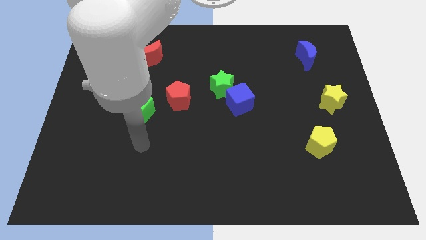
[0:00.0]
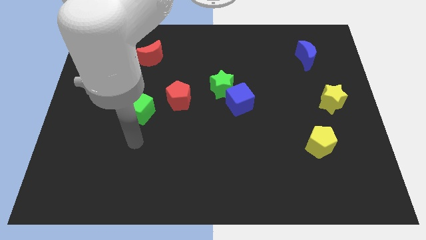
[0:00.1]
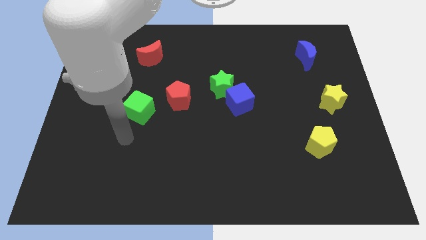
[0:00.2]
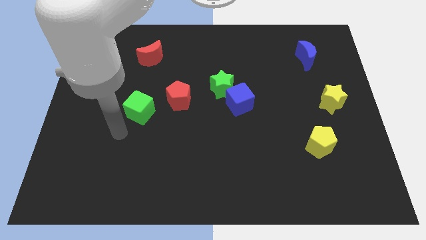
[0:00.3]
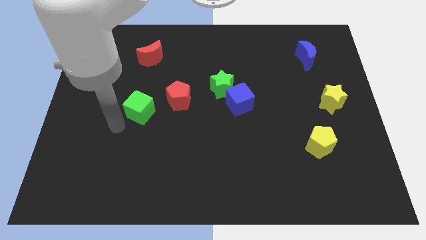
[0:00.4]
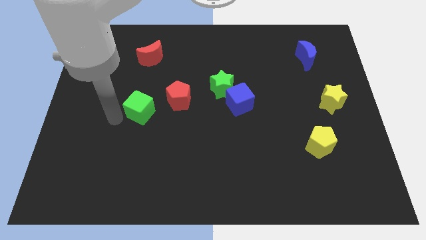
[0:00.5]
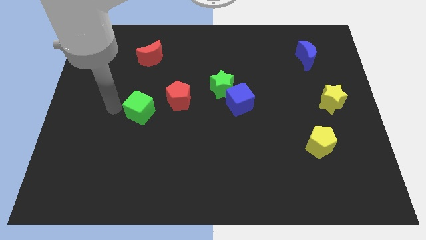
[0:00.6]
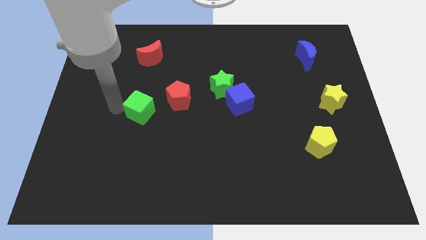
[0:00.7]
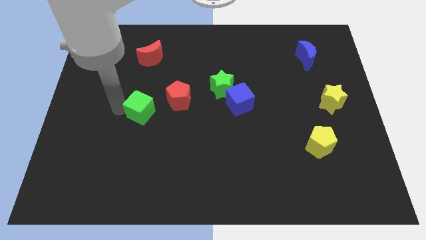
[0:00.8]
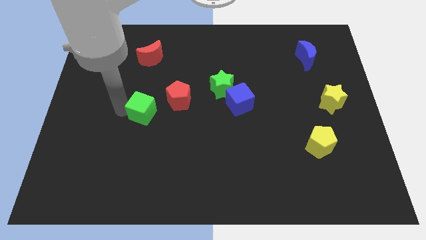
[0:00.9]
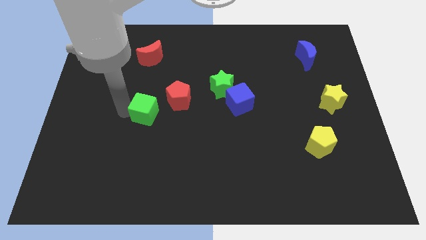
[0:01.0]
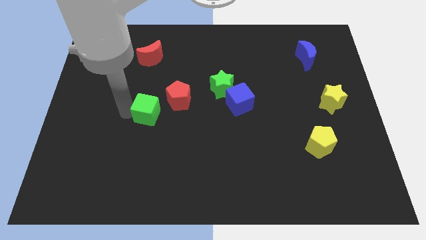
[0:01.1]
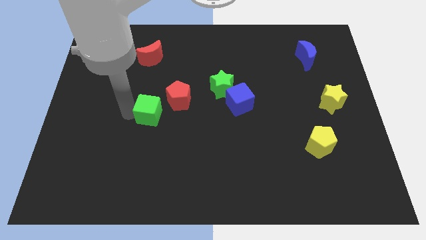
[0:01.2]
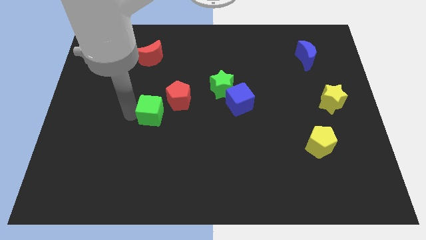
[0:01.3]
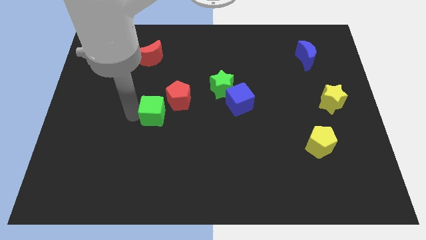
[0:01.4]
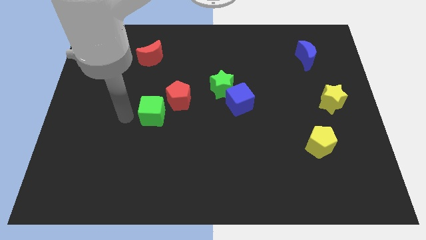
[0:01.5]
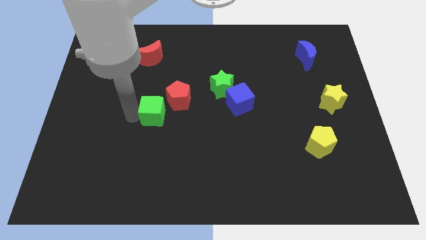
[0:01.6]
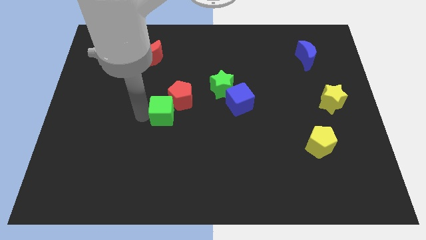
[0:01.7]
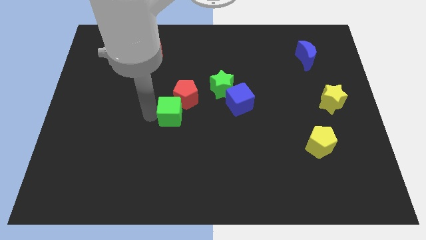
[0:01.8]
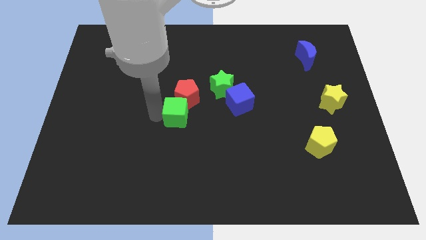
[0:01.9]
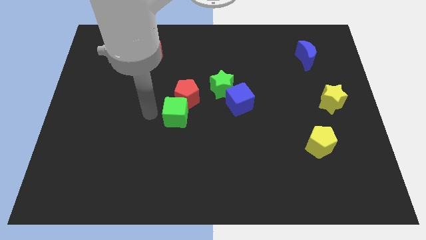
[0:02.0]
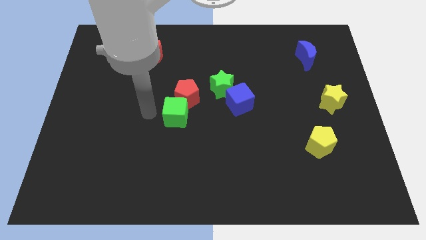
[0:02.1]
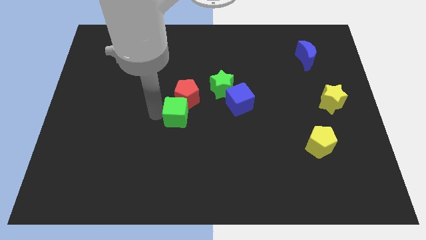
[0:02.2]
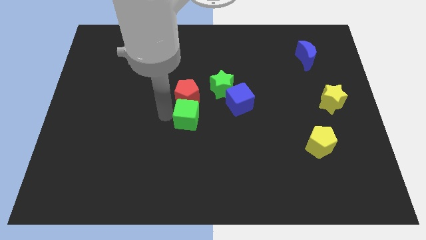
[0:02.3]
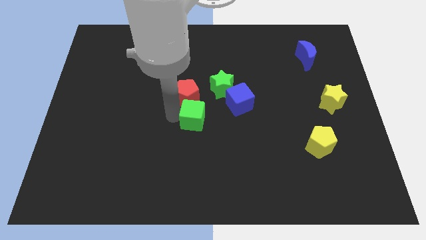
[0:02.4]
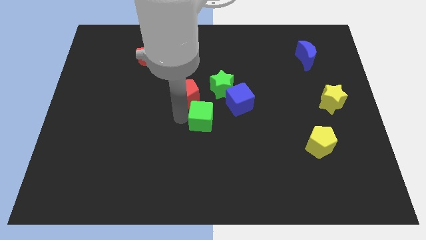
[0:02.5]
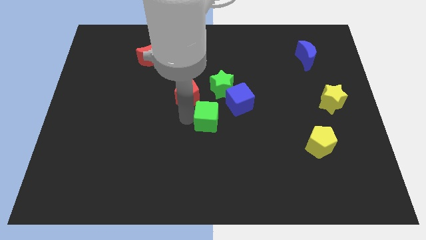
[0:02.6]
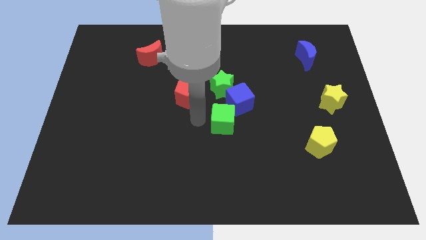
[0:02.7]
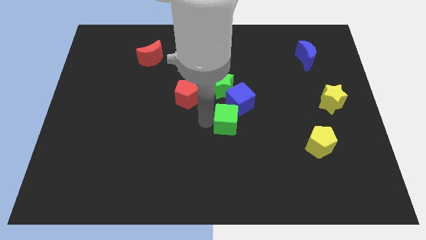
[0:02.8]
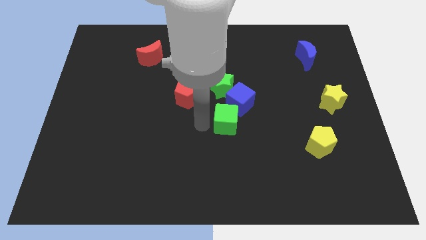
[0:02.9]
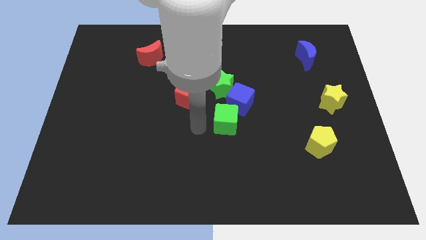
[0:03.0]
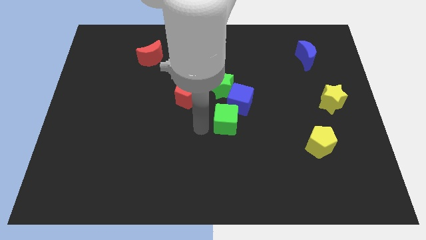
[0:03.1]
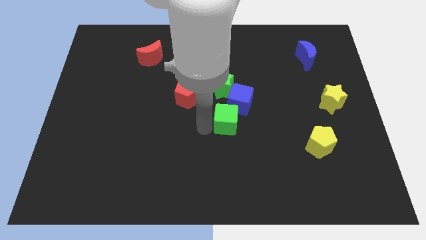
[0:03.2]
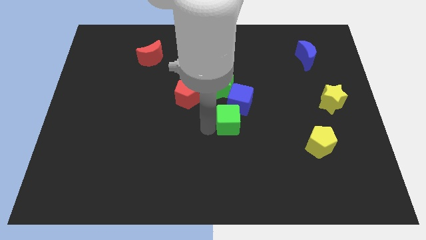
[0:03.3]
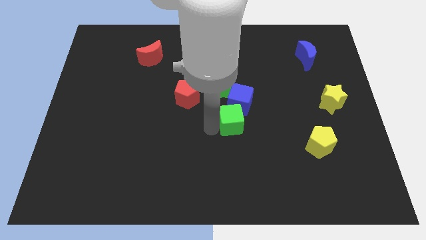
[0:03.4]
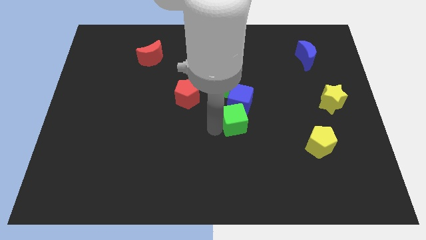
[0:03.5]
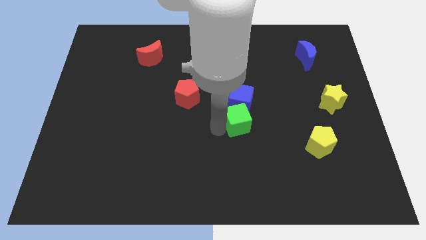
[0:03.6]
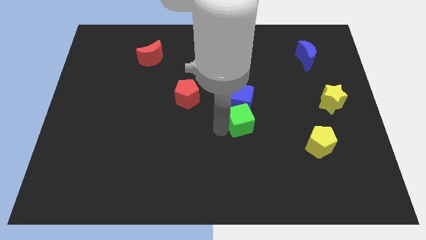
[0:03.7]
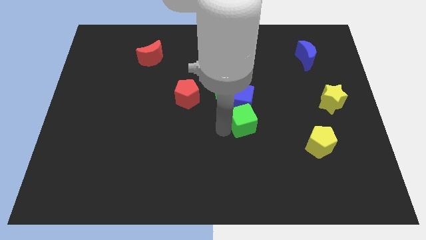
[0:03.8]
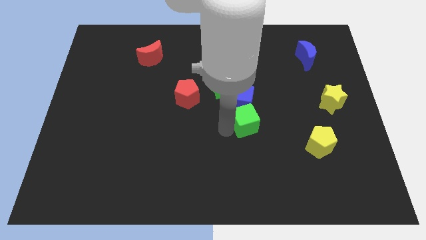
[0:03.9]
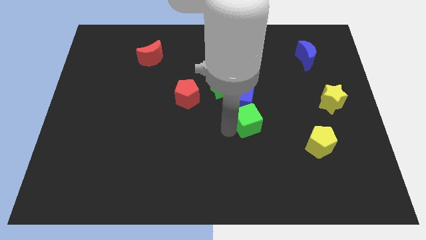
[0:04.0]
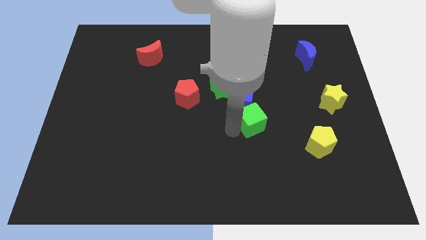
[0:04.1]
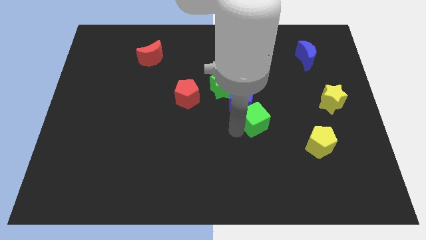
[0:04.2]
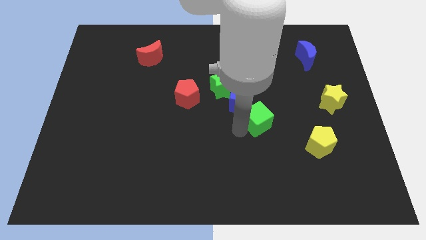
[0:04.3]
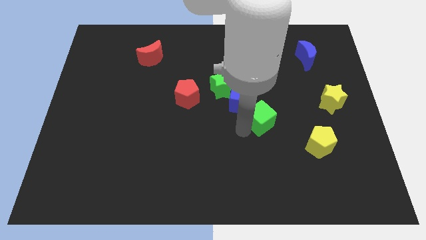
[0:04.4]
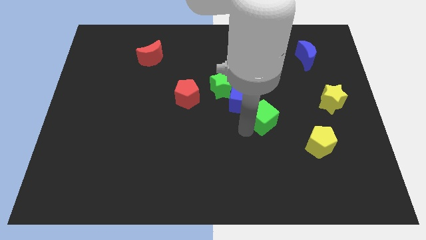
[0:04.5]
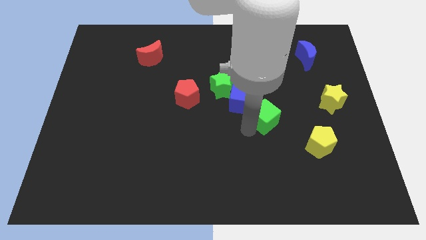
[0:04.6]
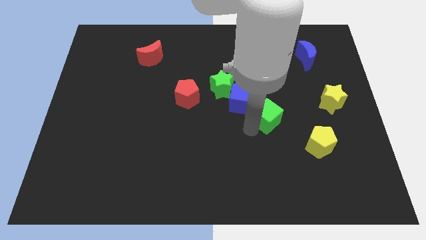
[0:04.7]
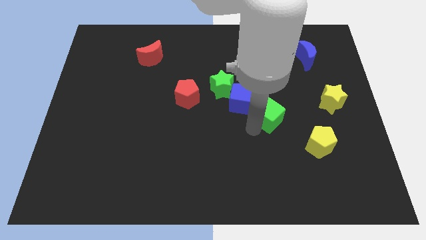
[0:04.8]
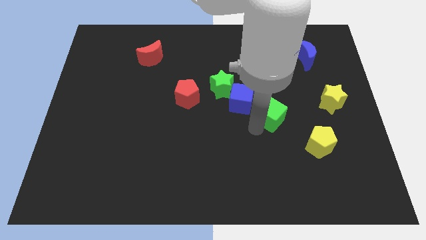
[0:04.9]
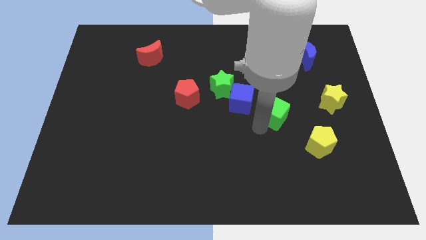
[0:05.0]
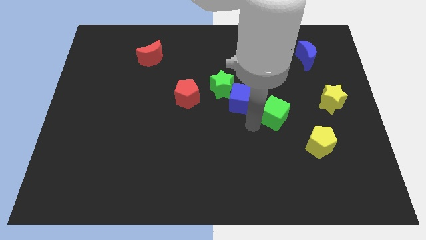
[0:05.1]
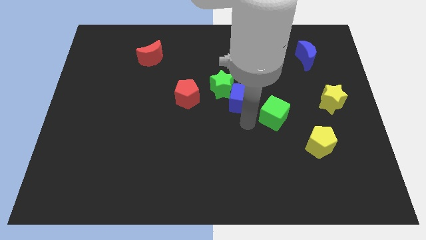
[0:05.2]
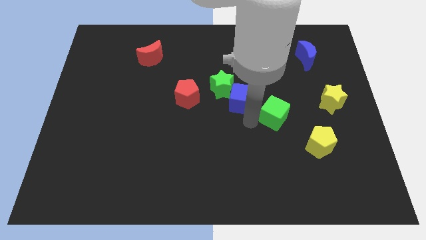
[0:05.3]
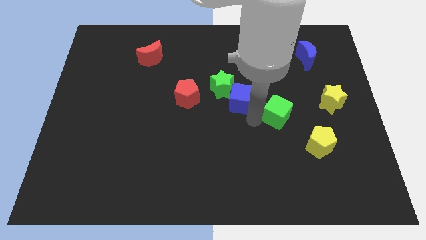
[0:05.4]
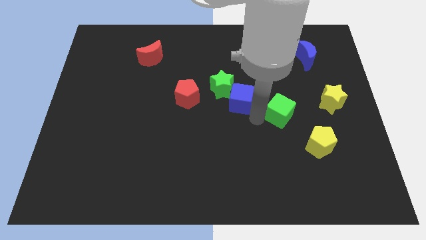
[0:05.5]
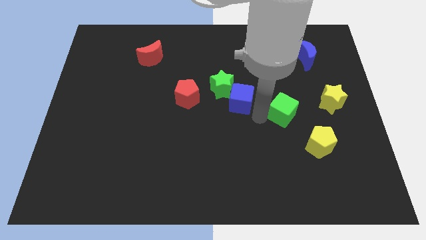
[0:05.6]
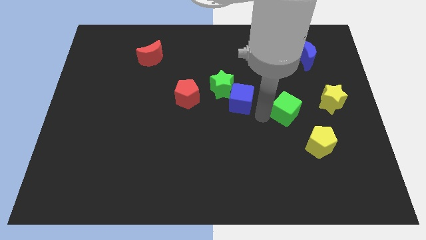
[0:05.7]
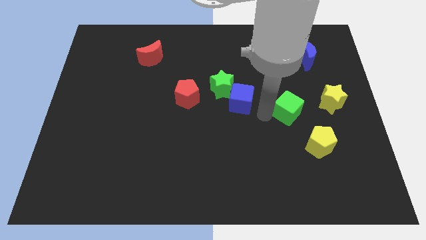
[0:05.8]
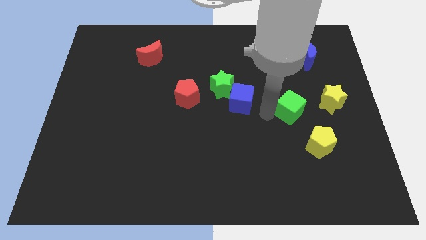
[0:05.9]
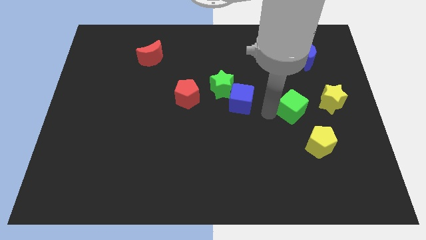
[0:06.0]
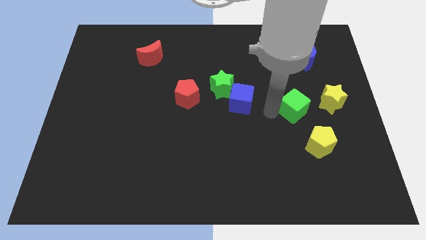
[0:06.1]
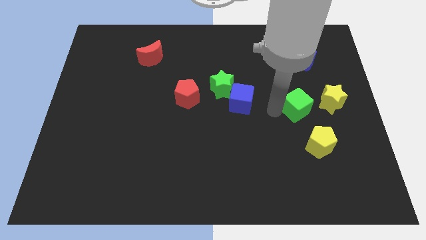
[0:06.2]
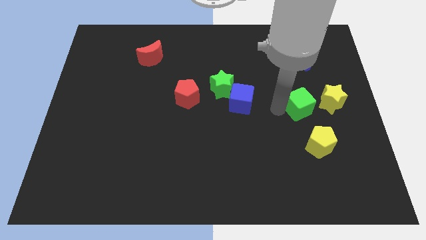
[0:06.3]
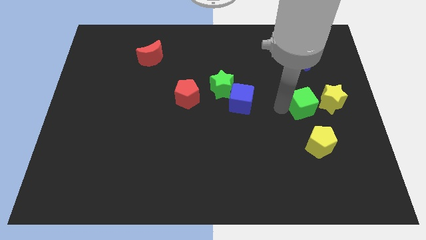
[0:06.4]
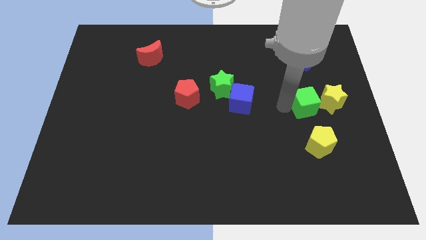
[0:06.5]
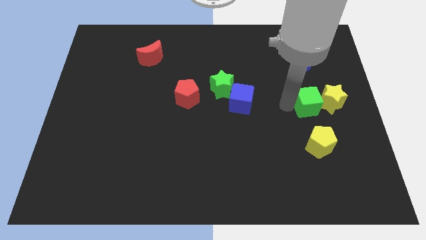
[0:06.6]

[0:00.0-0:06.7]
slide the green cube towards the yellow star

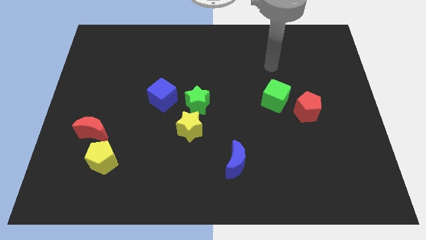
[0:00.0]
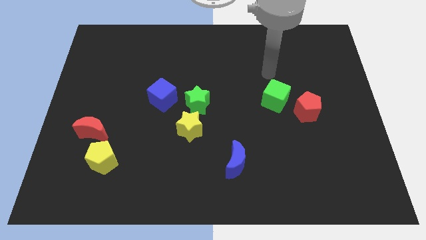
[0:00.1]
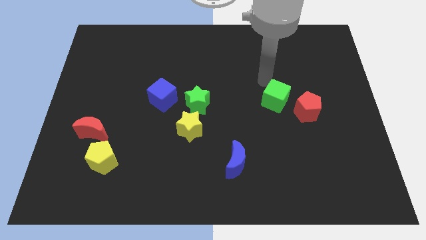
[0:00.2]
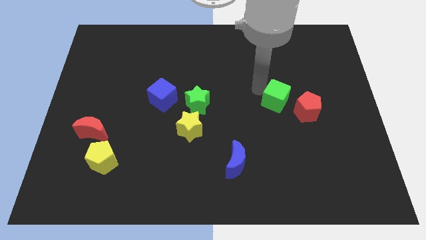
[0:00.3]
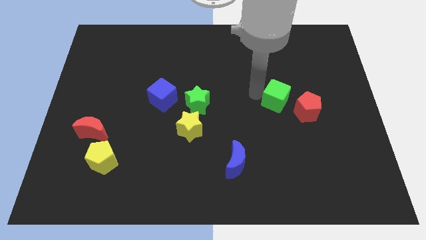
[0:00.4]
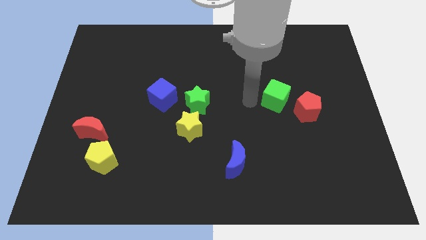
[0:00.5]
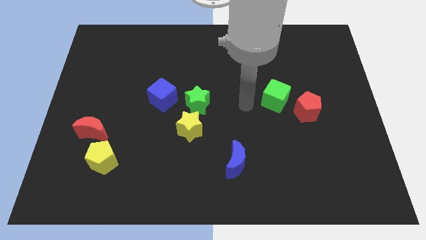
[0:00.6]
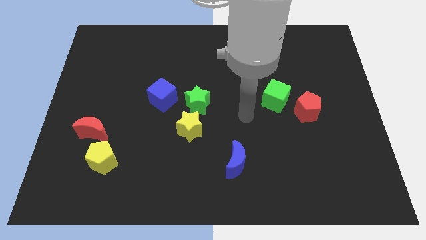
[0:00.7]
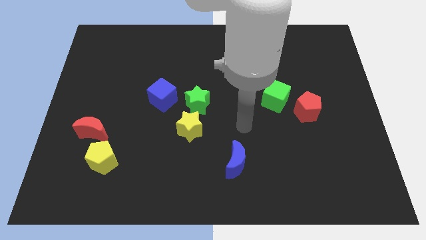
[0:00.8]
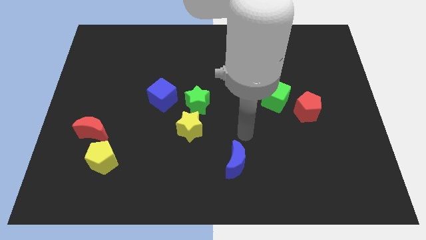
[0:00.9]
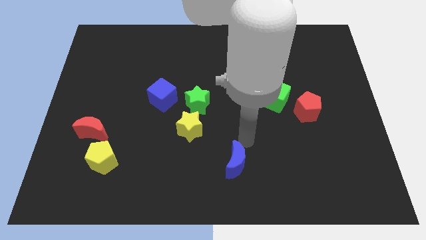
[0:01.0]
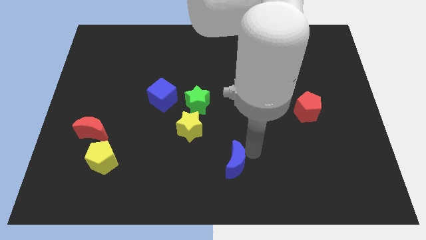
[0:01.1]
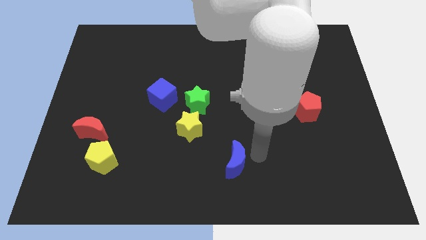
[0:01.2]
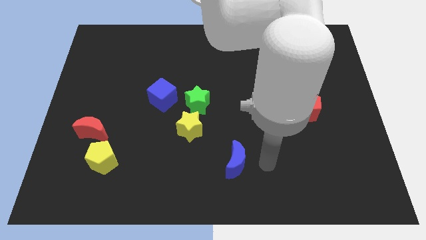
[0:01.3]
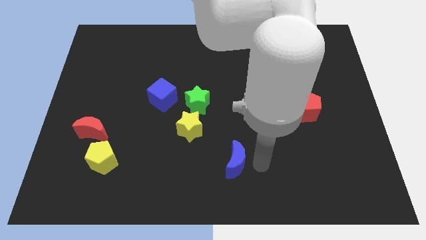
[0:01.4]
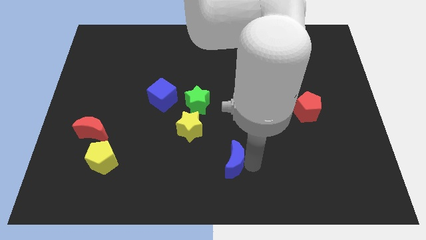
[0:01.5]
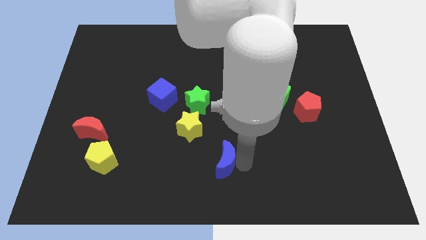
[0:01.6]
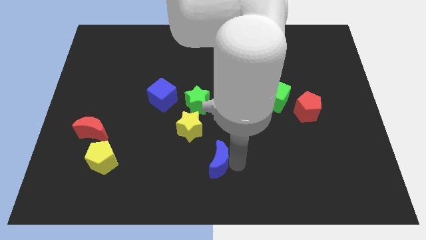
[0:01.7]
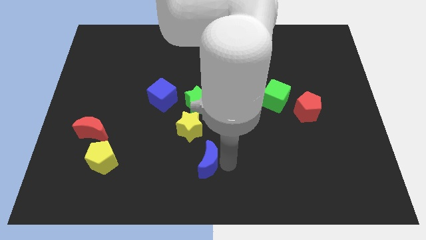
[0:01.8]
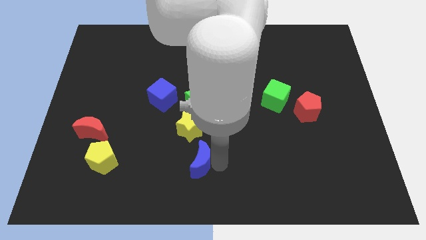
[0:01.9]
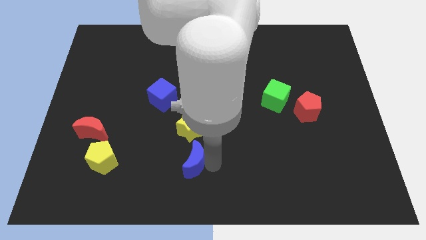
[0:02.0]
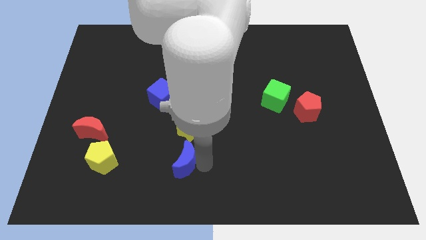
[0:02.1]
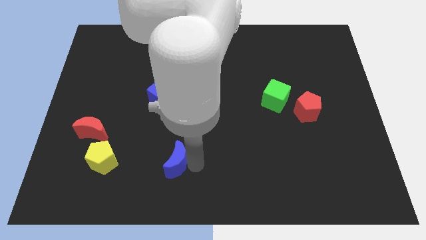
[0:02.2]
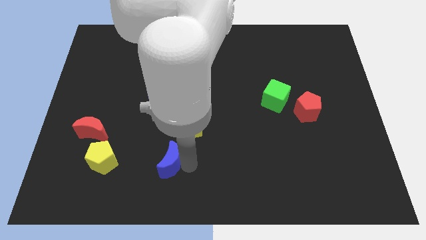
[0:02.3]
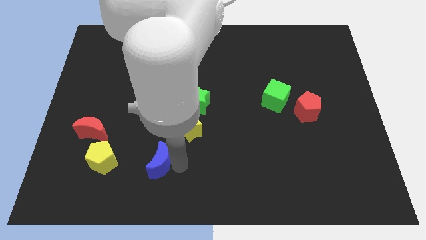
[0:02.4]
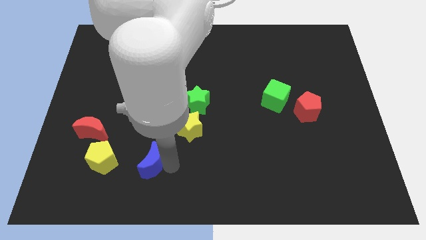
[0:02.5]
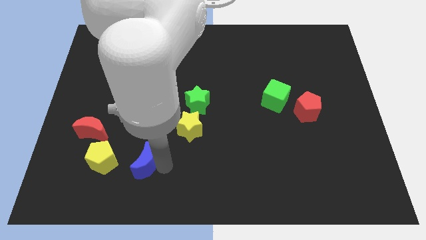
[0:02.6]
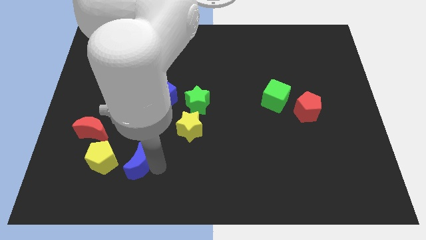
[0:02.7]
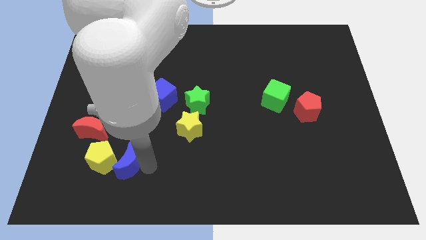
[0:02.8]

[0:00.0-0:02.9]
push the blue moon to the yellow pentagon
